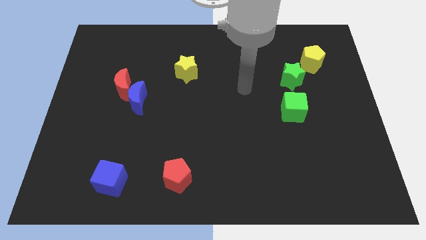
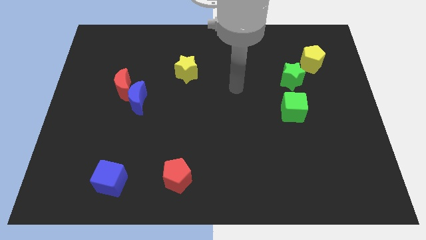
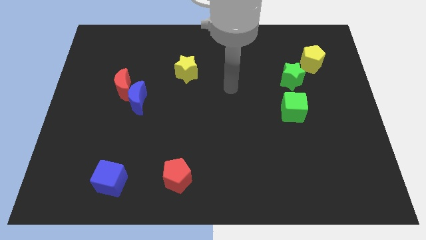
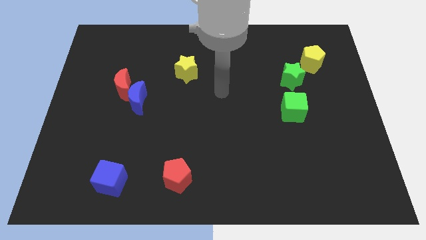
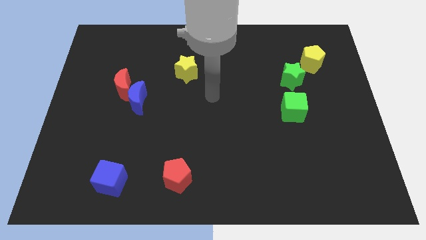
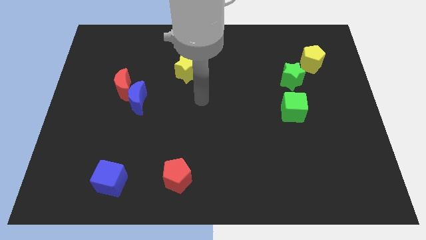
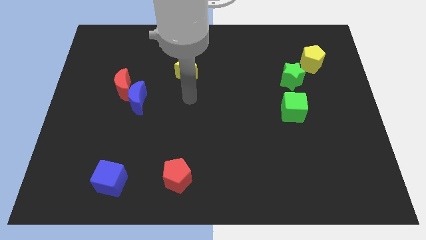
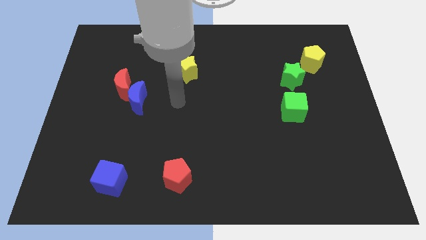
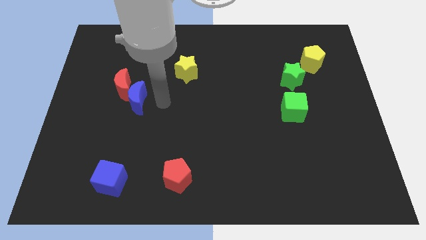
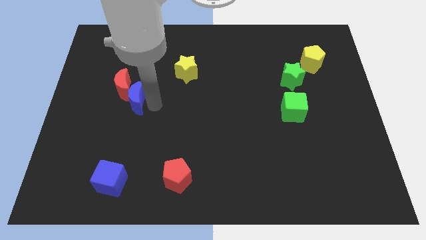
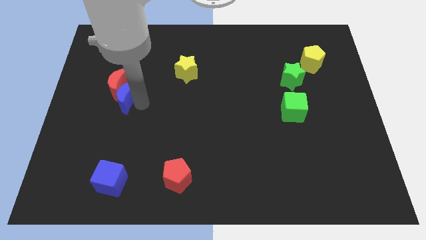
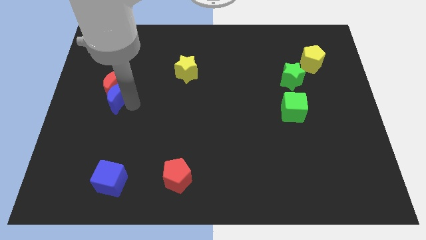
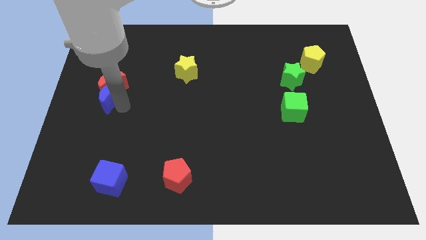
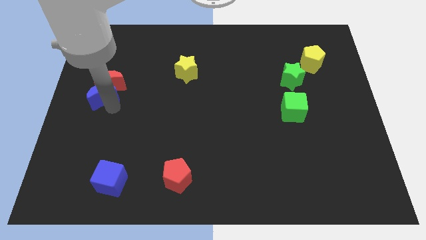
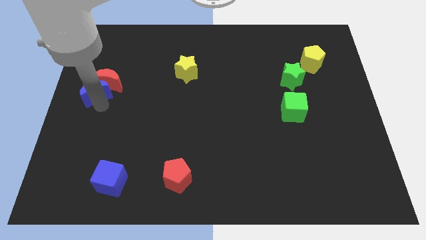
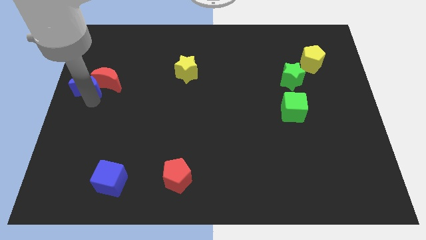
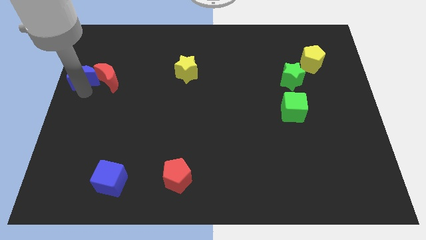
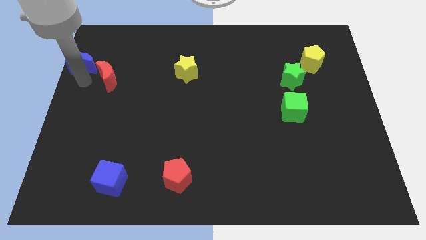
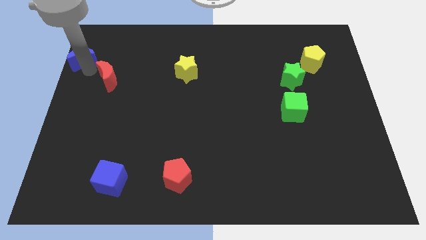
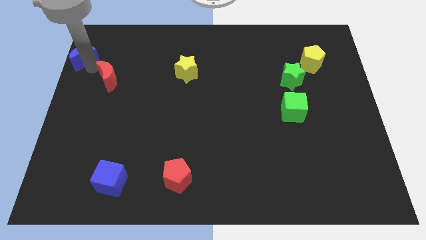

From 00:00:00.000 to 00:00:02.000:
separate the red moon from the blue moon

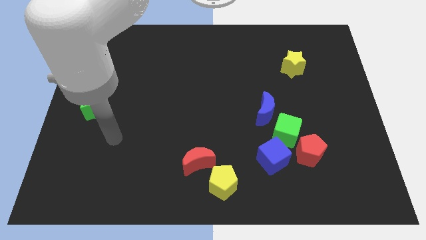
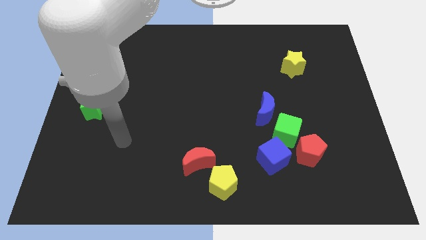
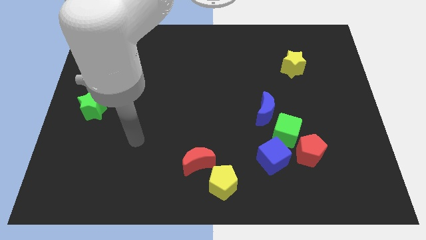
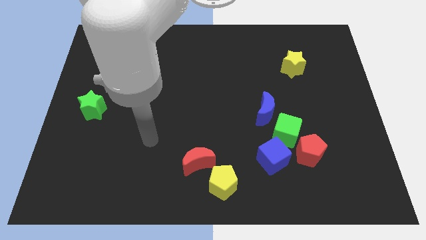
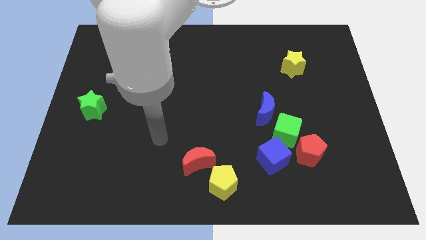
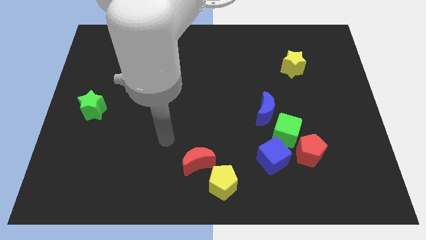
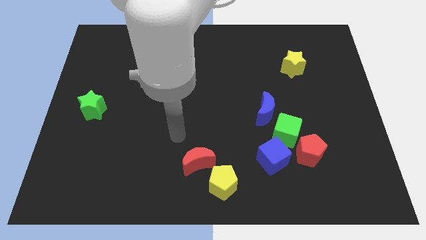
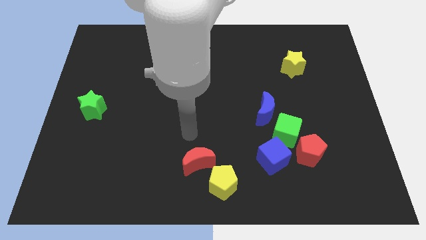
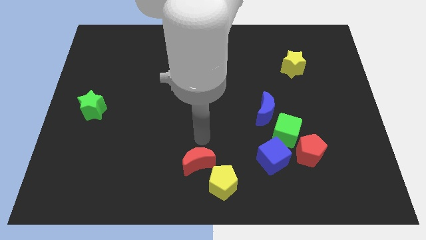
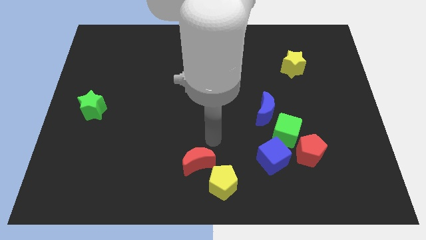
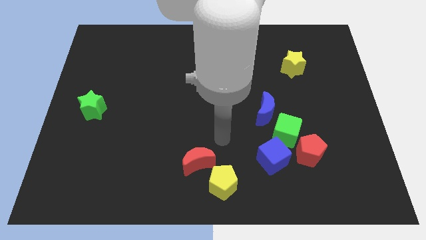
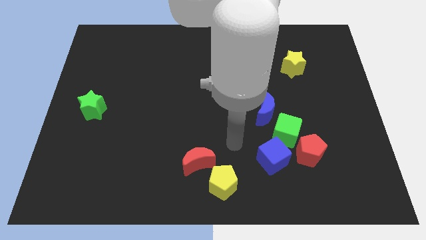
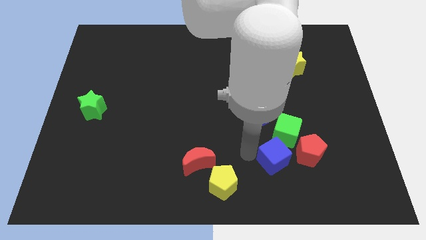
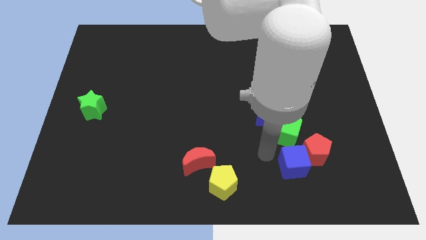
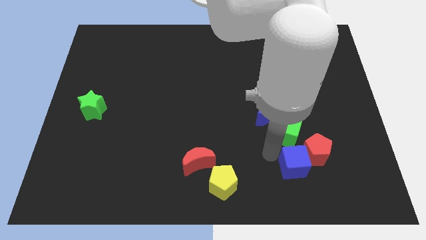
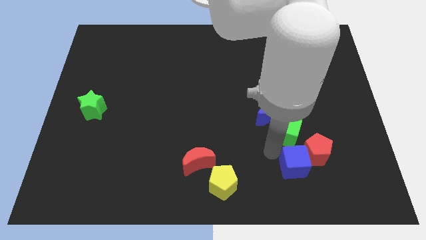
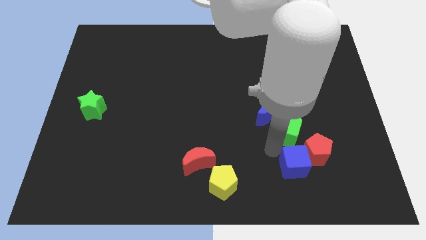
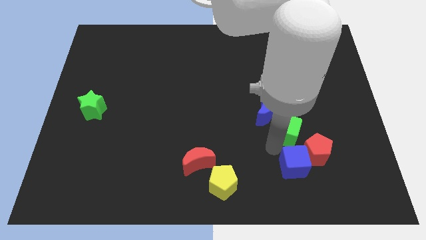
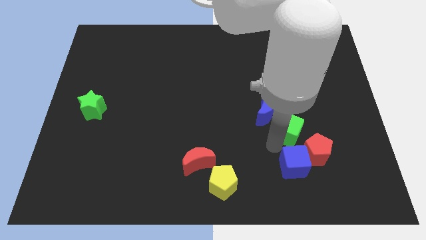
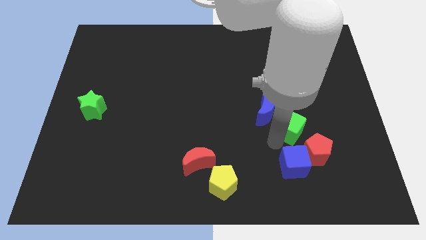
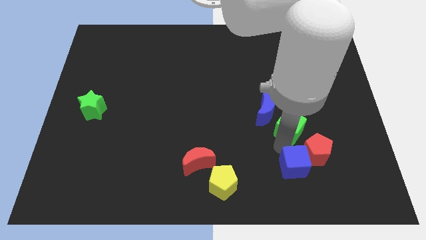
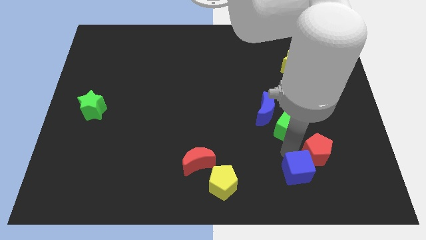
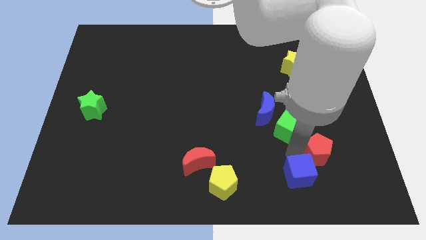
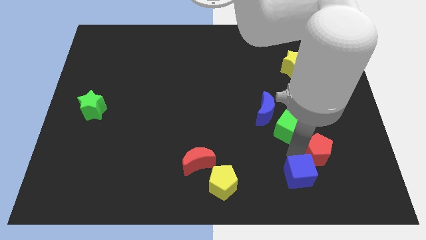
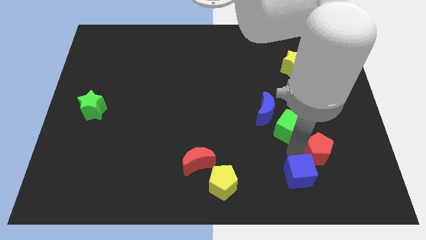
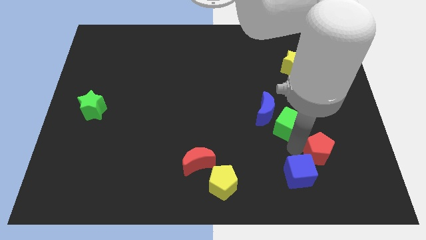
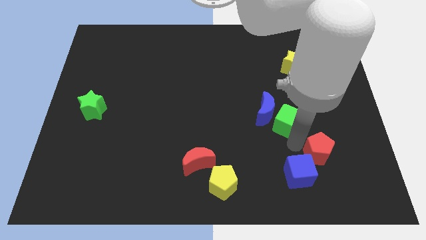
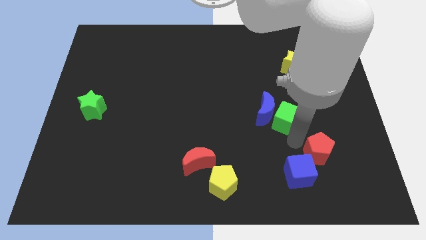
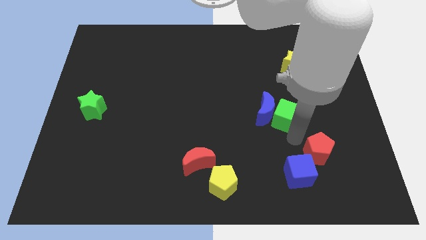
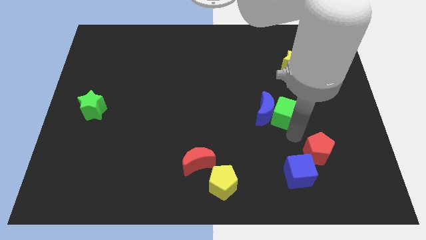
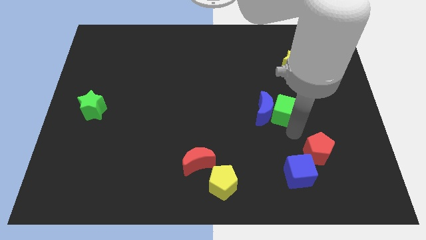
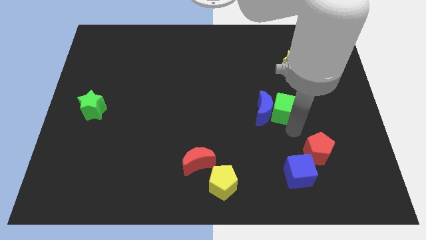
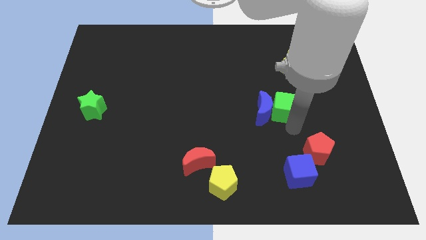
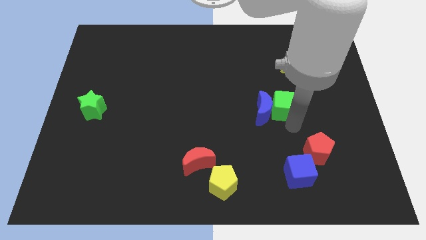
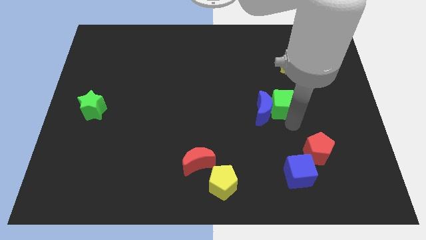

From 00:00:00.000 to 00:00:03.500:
move the green cube away from the red pentagon, blue moon, and blue cube

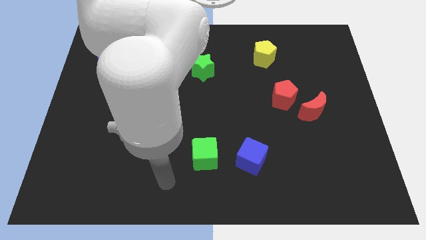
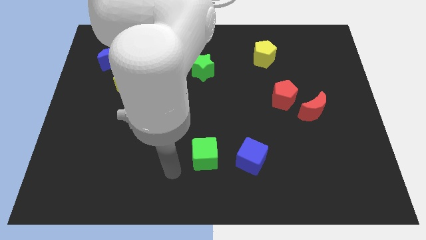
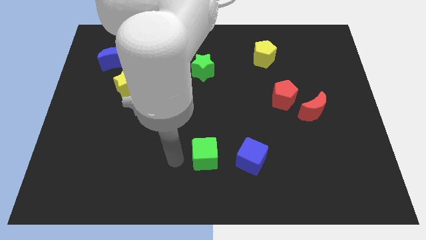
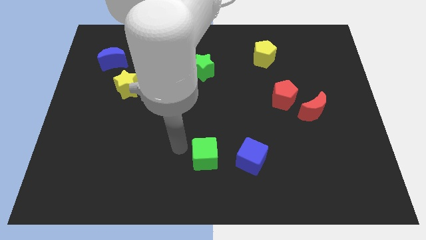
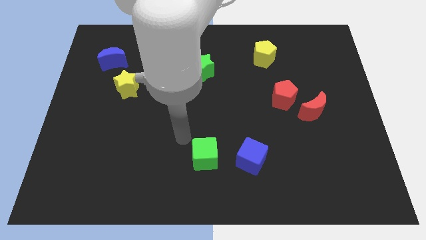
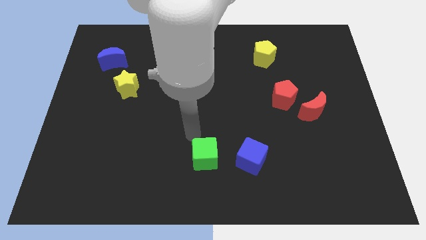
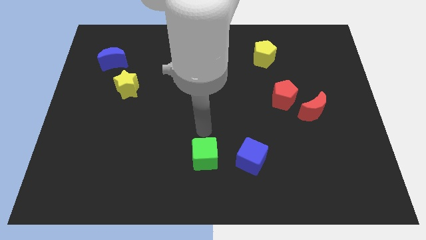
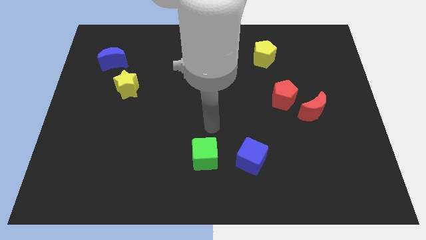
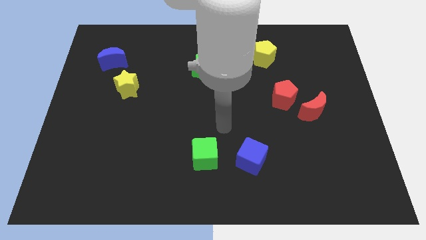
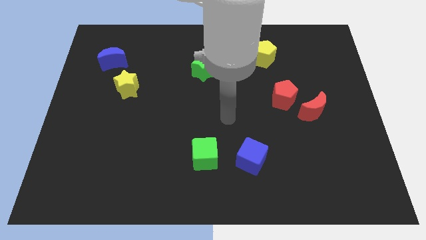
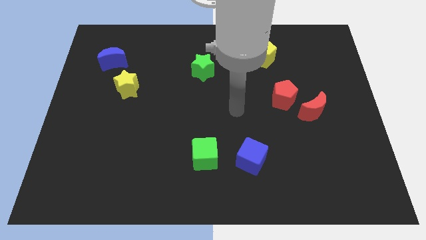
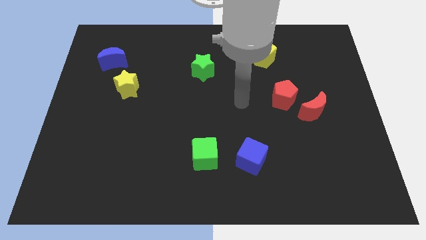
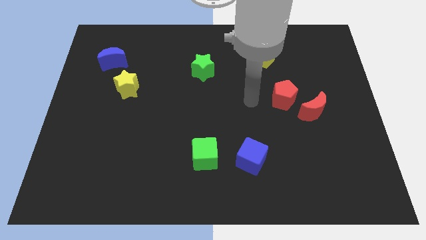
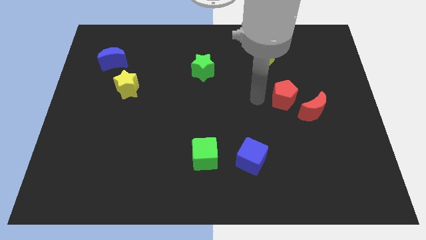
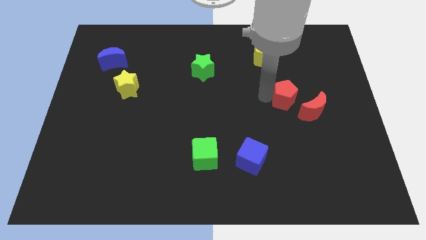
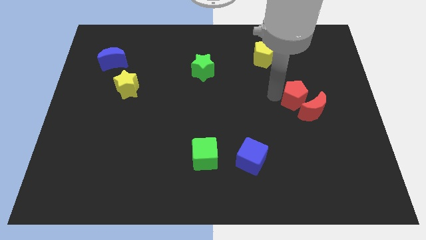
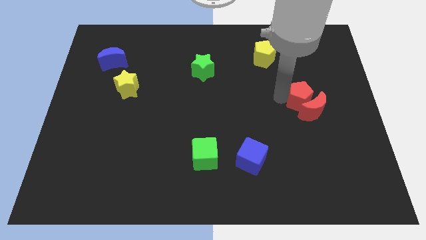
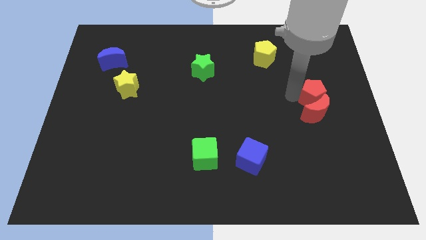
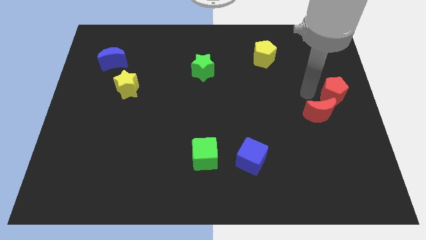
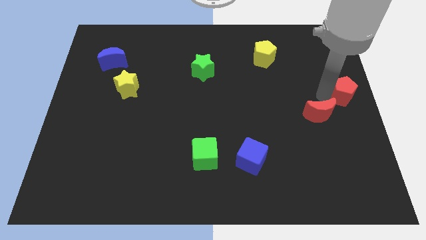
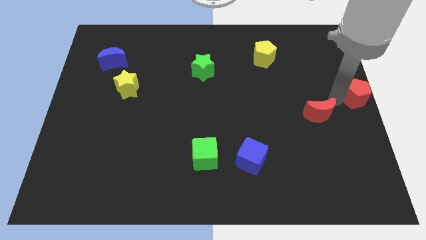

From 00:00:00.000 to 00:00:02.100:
separate the red moon from the red pentagon

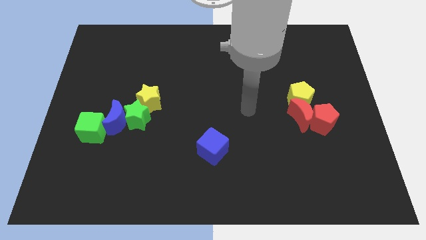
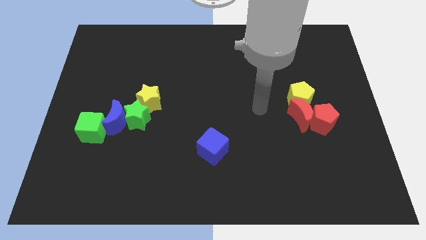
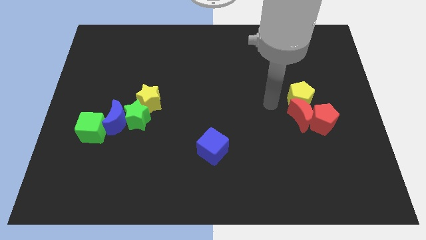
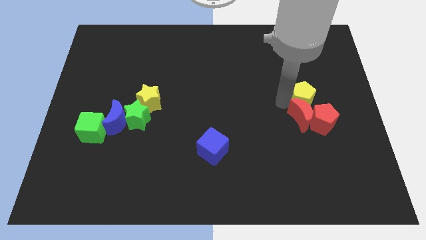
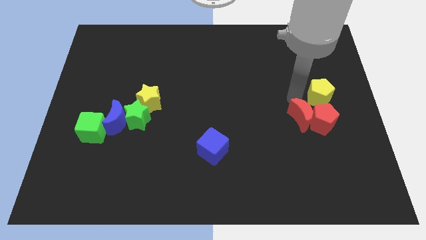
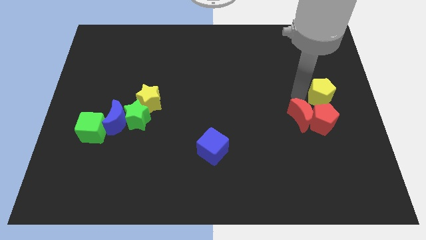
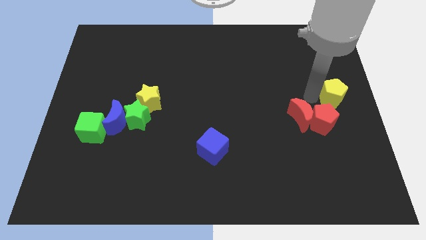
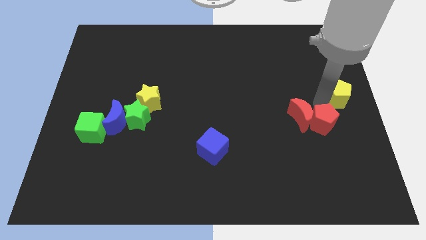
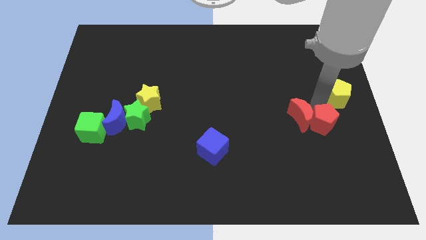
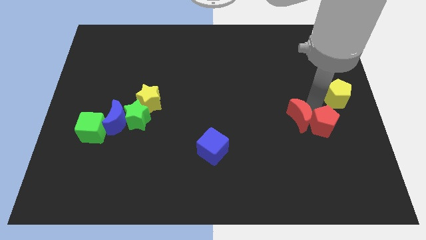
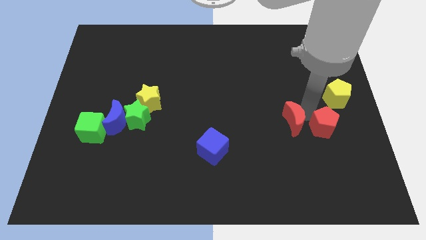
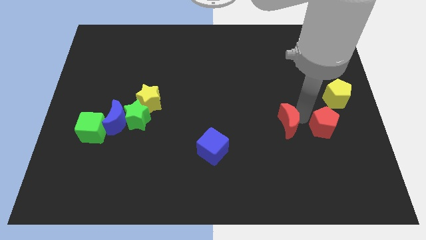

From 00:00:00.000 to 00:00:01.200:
pull the red moon apart from the red pentagon and yellow pentagon

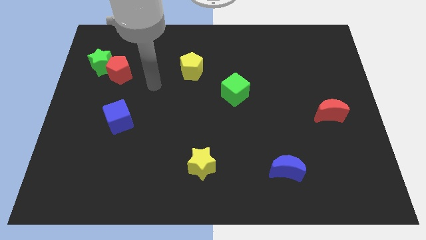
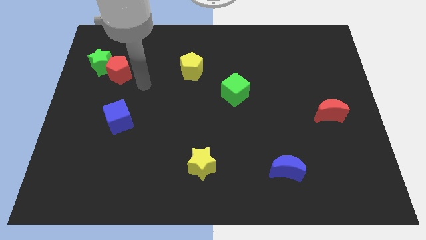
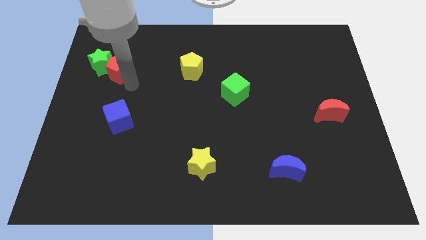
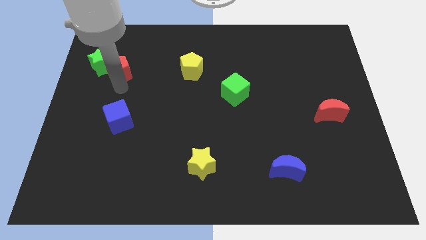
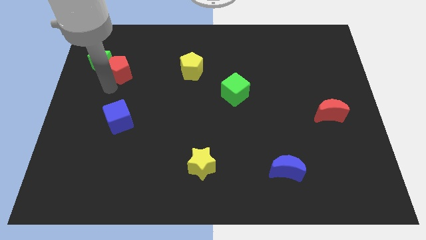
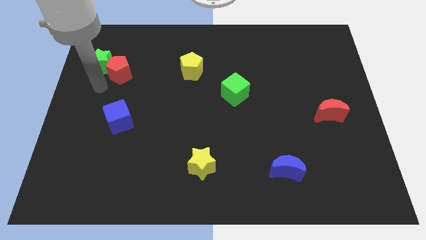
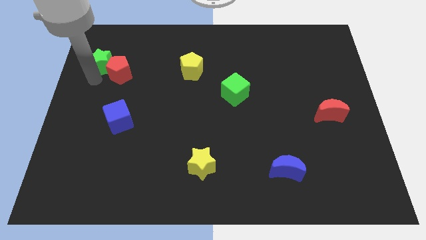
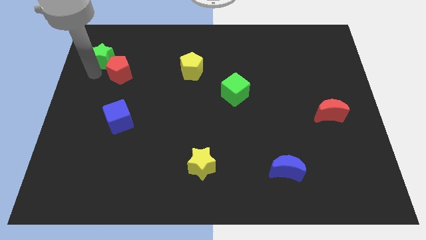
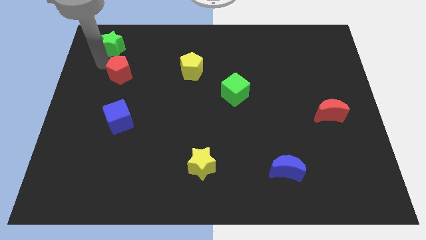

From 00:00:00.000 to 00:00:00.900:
separate the red pentagon from the green star
